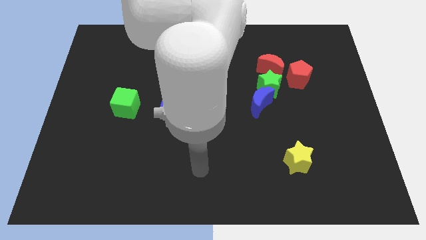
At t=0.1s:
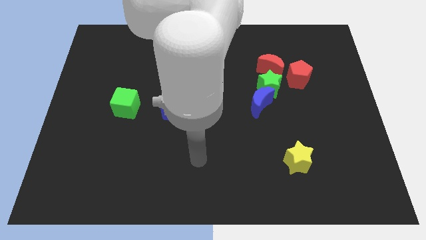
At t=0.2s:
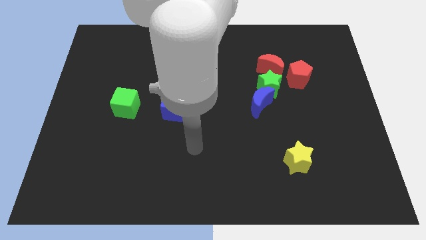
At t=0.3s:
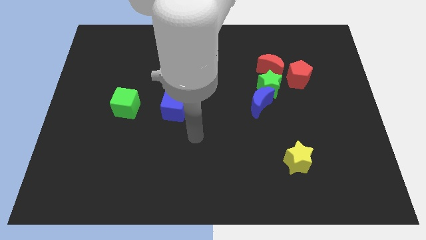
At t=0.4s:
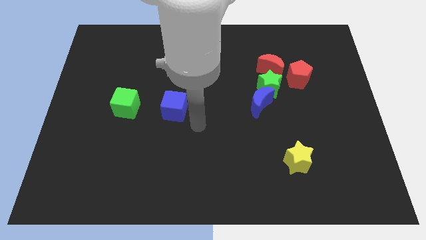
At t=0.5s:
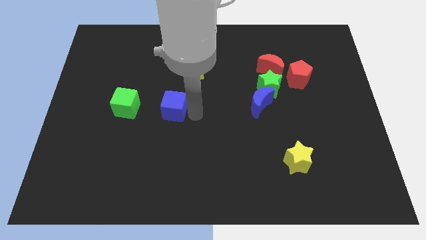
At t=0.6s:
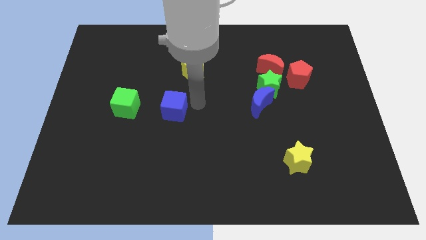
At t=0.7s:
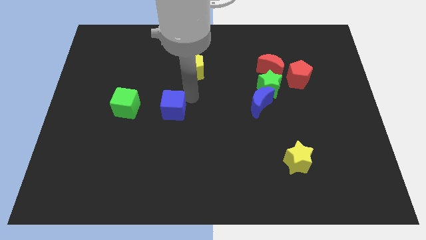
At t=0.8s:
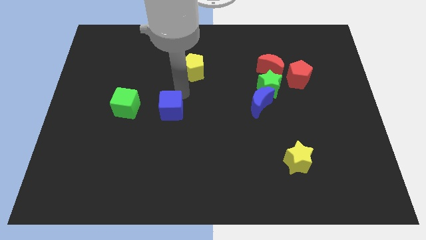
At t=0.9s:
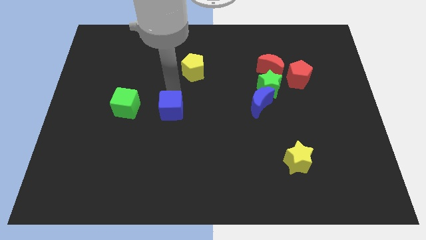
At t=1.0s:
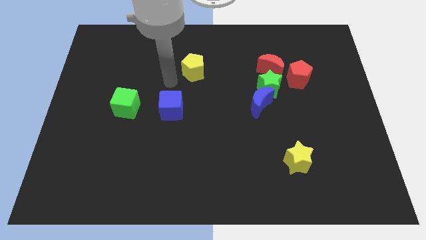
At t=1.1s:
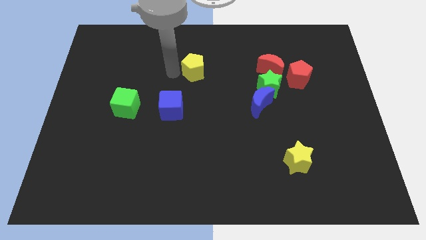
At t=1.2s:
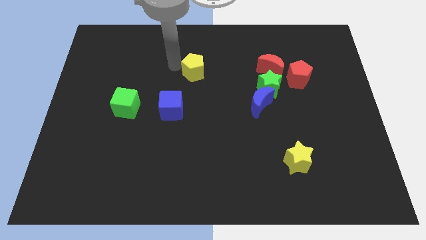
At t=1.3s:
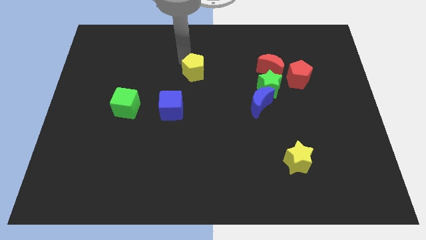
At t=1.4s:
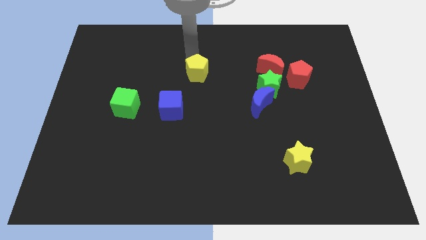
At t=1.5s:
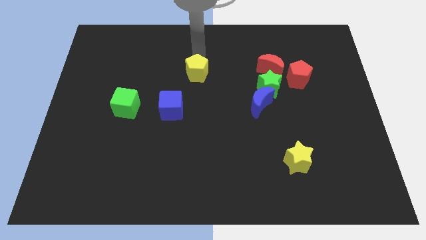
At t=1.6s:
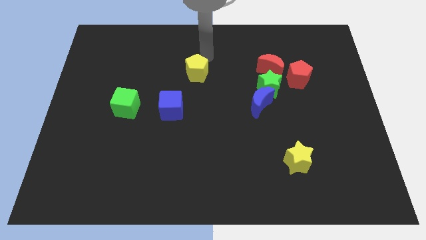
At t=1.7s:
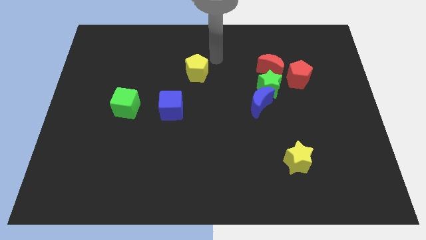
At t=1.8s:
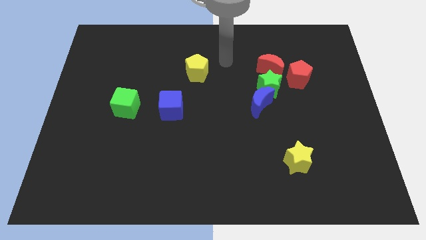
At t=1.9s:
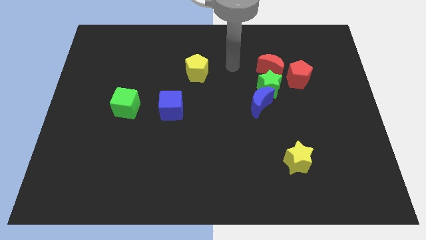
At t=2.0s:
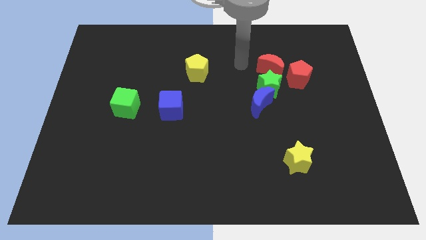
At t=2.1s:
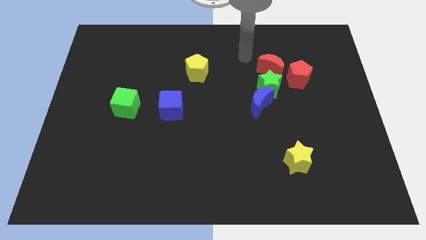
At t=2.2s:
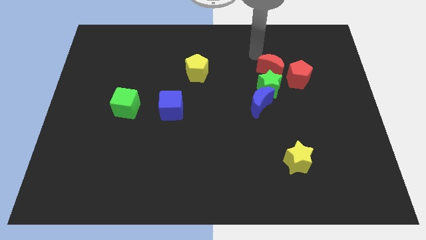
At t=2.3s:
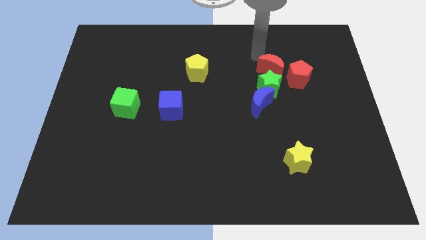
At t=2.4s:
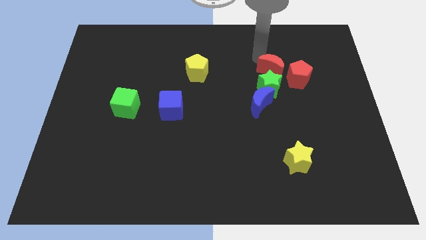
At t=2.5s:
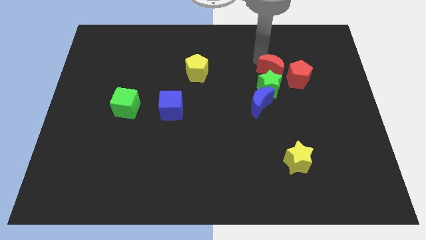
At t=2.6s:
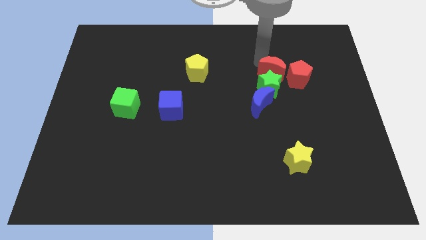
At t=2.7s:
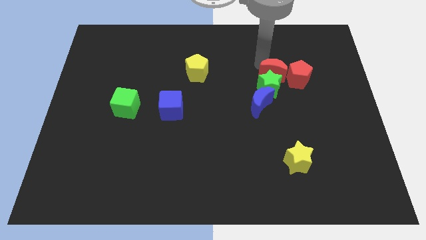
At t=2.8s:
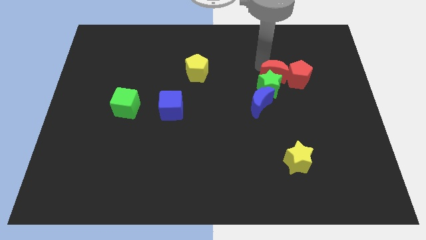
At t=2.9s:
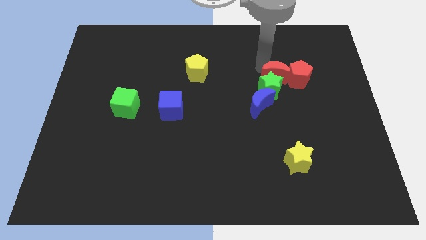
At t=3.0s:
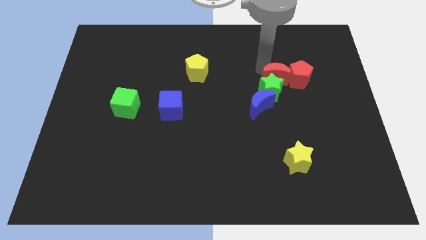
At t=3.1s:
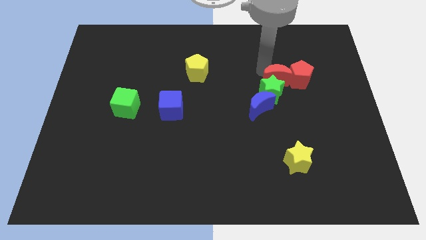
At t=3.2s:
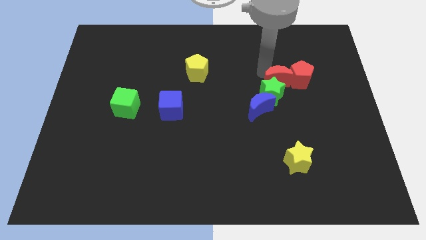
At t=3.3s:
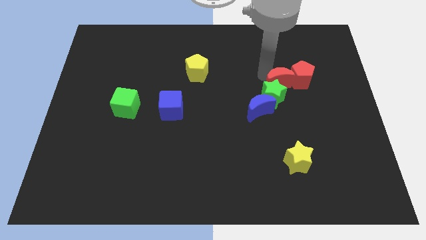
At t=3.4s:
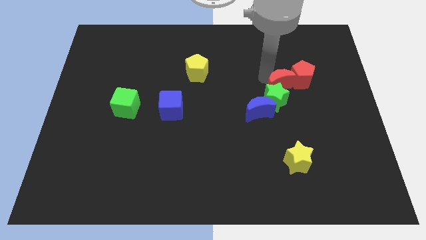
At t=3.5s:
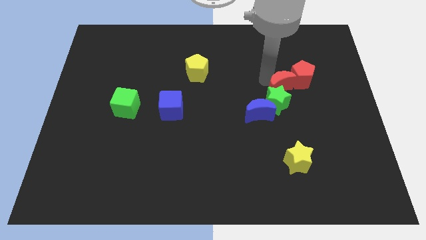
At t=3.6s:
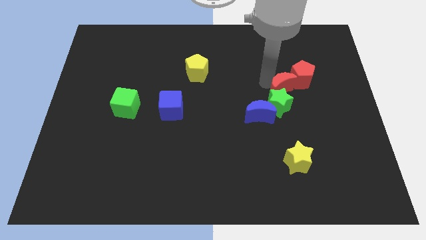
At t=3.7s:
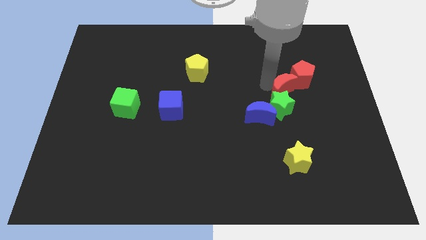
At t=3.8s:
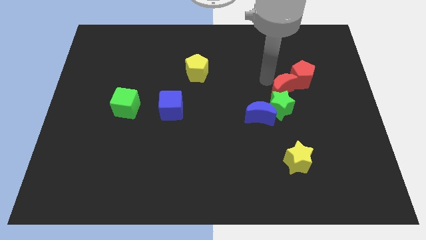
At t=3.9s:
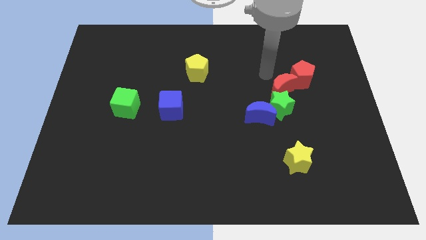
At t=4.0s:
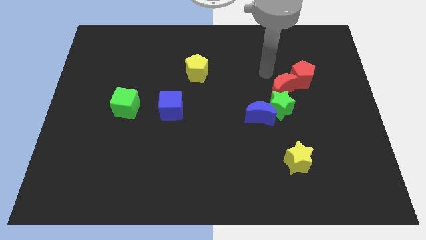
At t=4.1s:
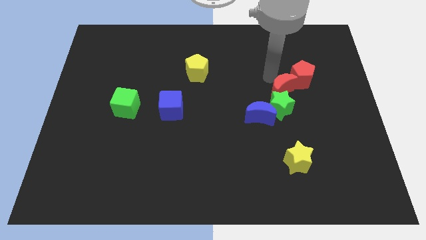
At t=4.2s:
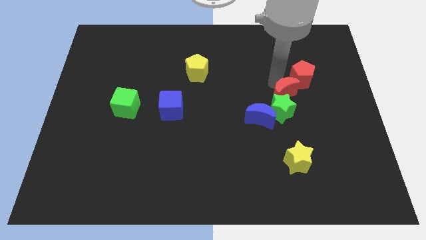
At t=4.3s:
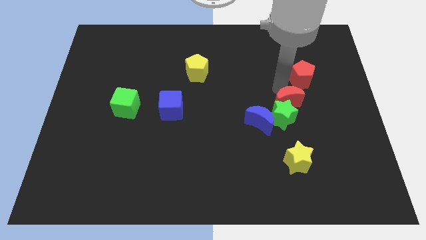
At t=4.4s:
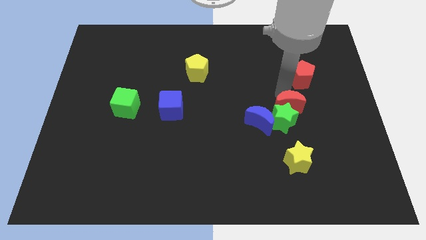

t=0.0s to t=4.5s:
put the red moon just right of the blue moon

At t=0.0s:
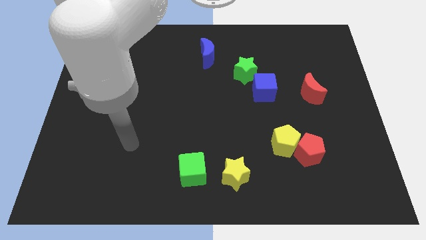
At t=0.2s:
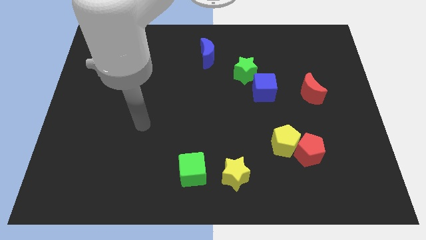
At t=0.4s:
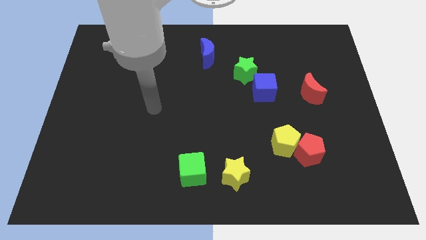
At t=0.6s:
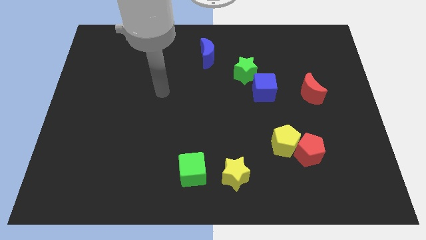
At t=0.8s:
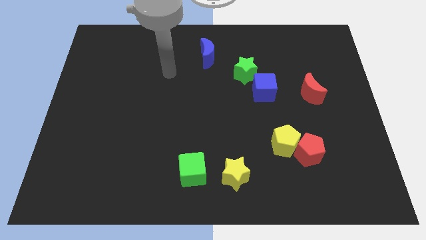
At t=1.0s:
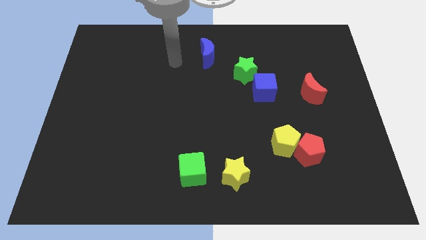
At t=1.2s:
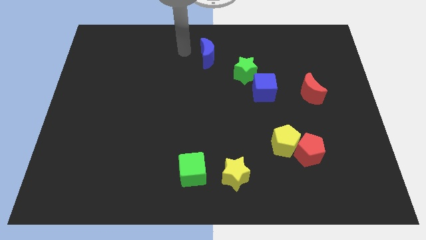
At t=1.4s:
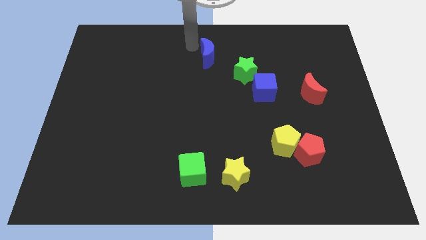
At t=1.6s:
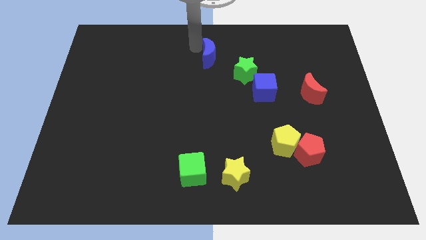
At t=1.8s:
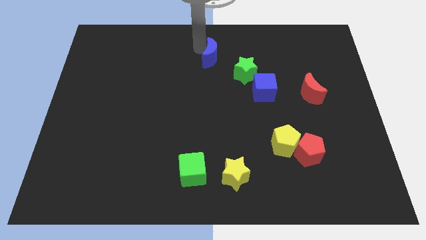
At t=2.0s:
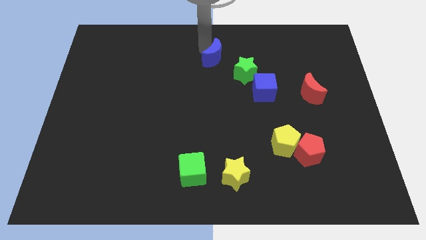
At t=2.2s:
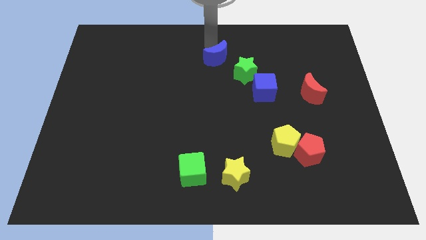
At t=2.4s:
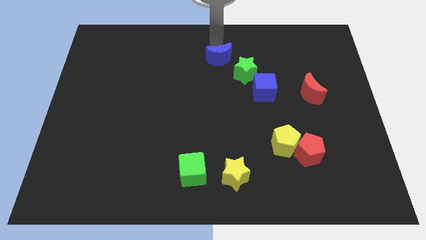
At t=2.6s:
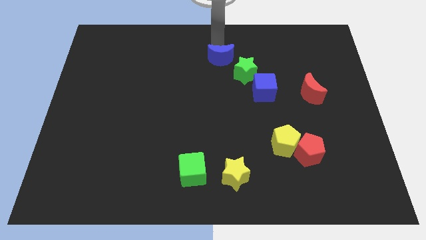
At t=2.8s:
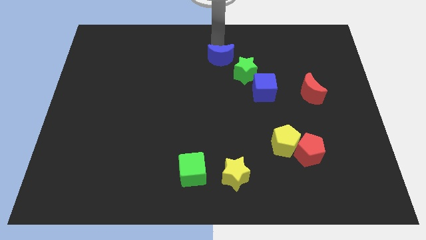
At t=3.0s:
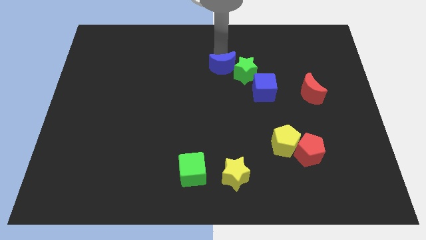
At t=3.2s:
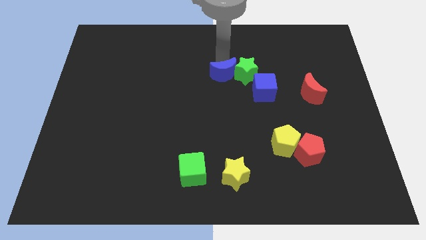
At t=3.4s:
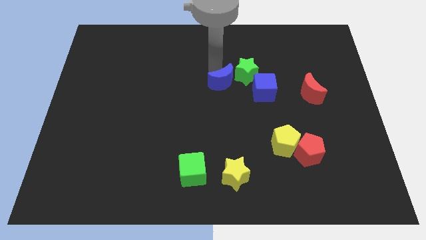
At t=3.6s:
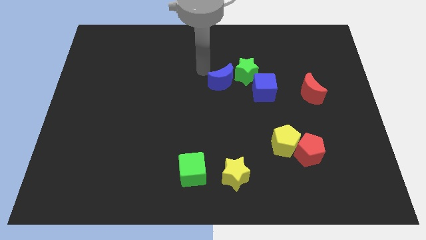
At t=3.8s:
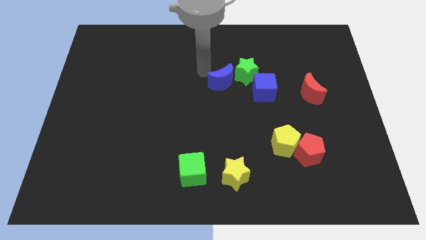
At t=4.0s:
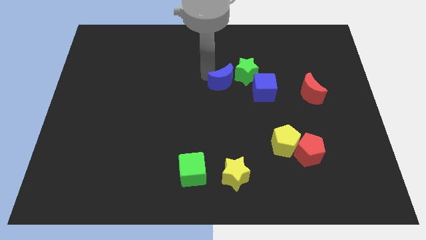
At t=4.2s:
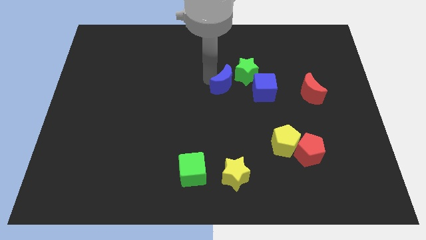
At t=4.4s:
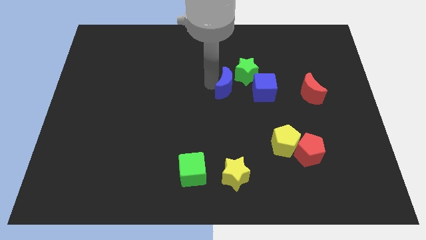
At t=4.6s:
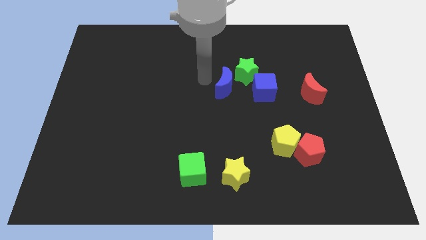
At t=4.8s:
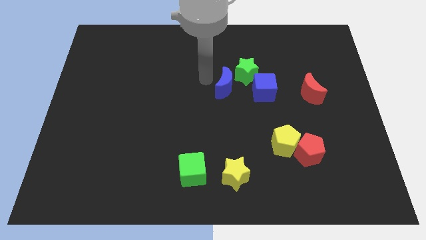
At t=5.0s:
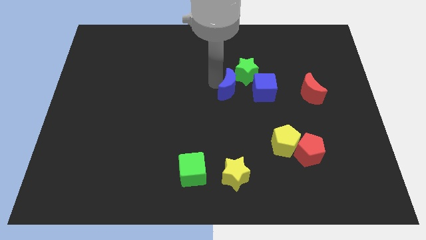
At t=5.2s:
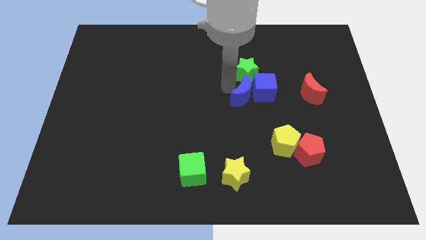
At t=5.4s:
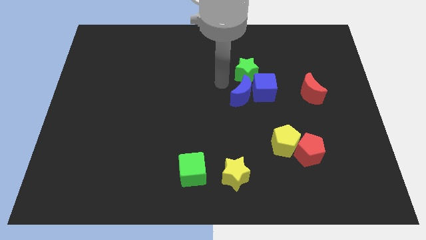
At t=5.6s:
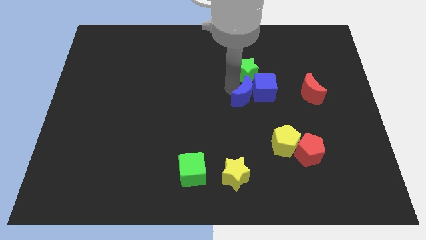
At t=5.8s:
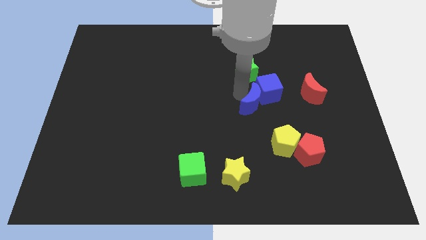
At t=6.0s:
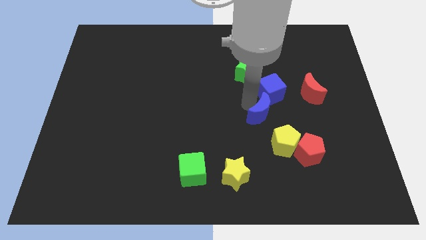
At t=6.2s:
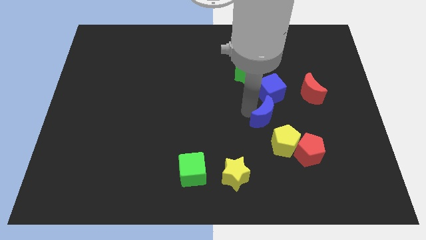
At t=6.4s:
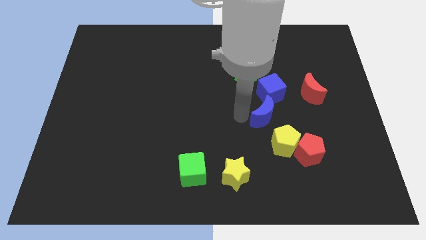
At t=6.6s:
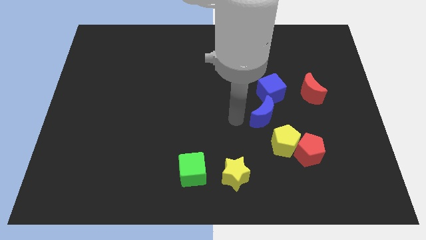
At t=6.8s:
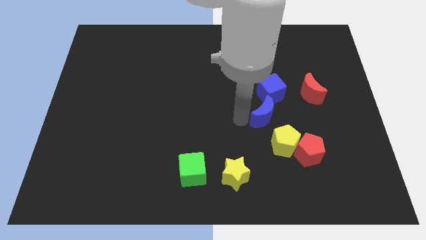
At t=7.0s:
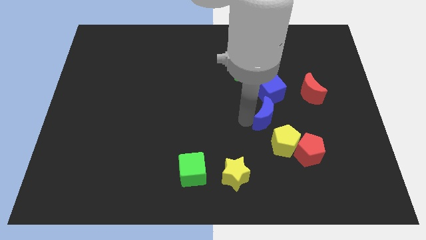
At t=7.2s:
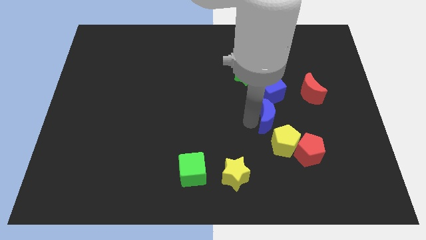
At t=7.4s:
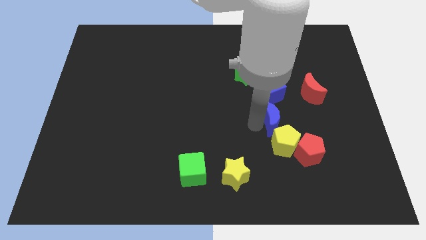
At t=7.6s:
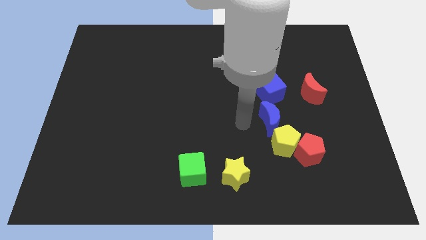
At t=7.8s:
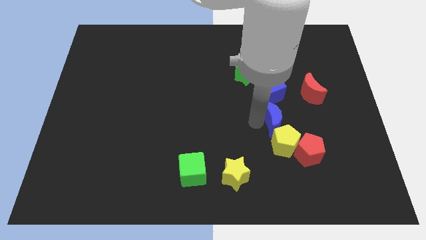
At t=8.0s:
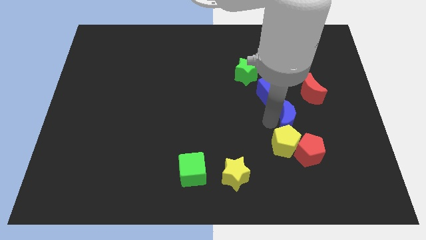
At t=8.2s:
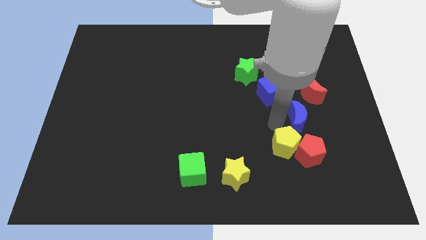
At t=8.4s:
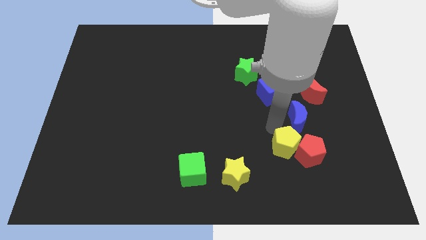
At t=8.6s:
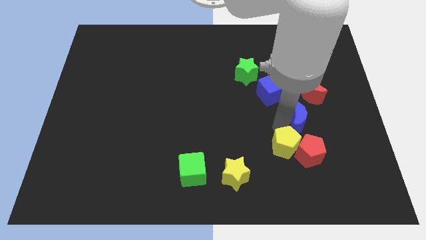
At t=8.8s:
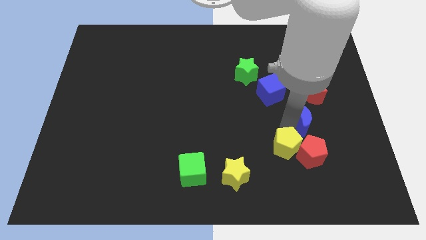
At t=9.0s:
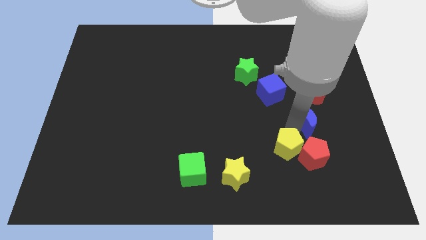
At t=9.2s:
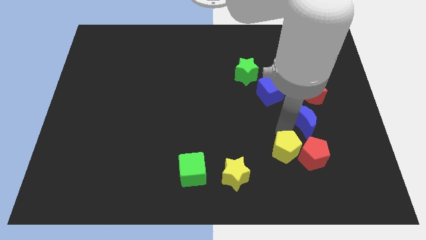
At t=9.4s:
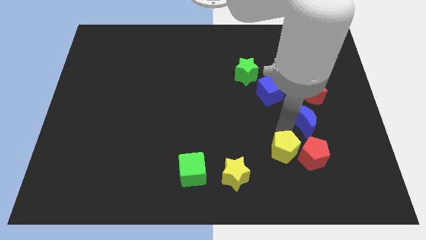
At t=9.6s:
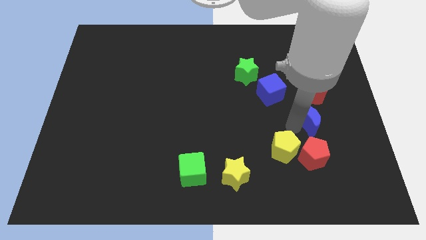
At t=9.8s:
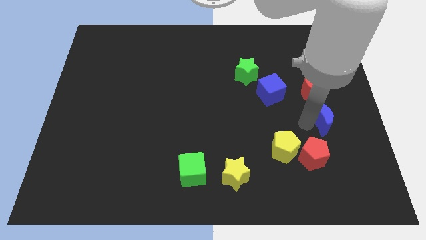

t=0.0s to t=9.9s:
slide the blue moon to the bottom right side of the red moon
